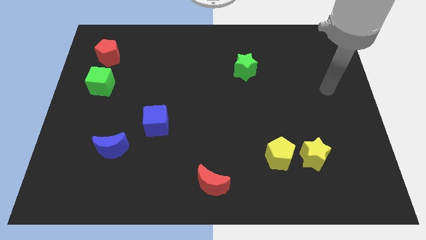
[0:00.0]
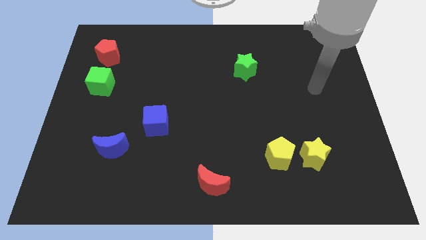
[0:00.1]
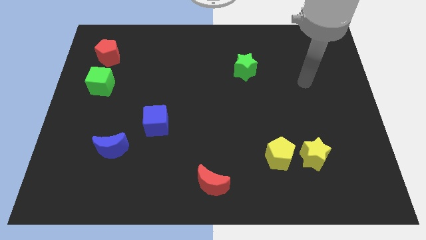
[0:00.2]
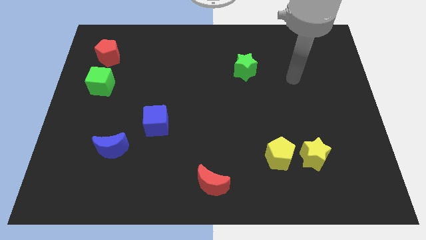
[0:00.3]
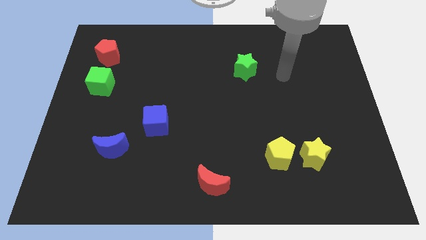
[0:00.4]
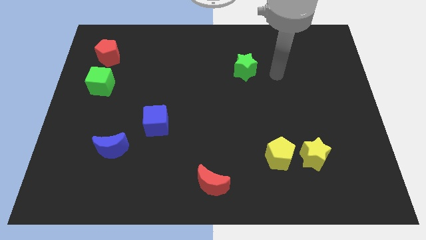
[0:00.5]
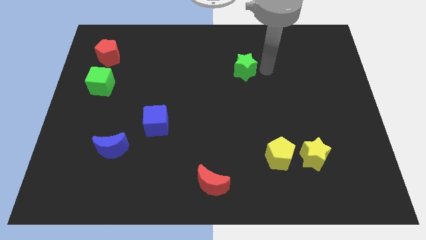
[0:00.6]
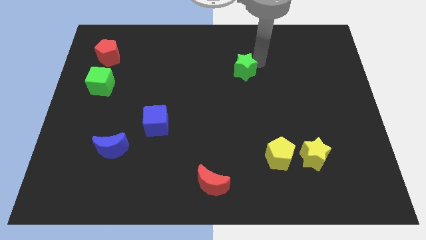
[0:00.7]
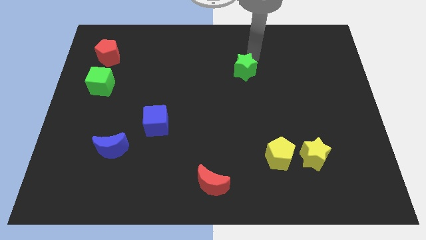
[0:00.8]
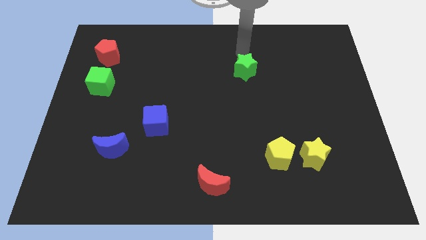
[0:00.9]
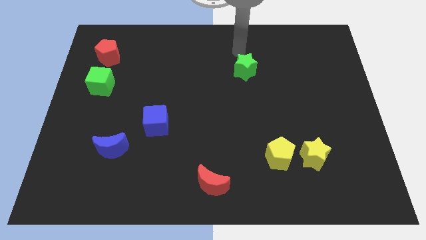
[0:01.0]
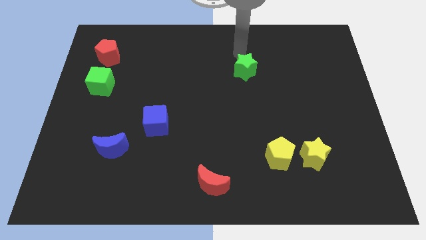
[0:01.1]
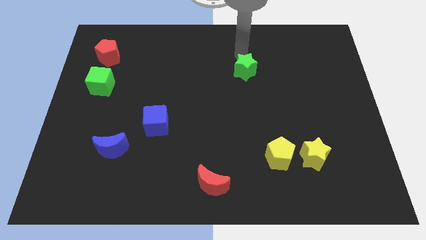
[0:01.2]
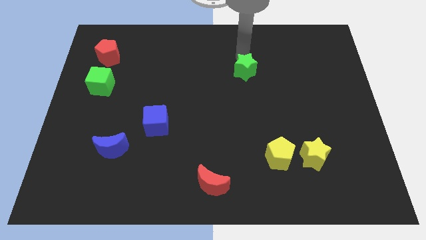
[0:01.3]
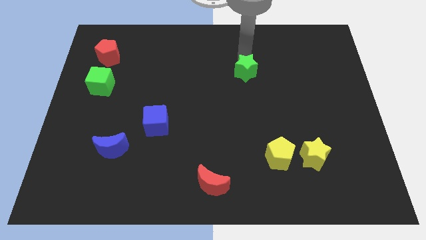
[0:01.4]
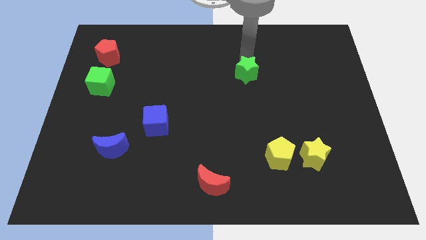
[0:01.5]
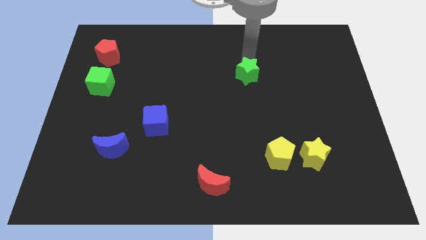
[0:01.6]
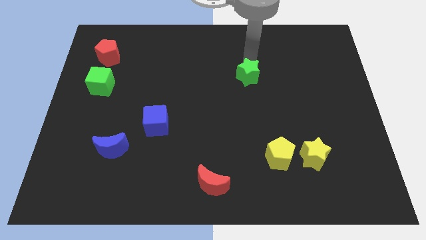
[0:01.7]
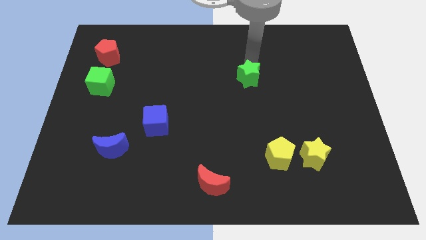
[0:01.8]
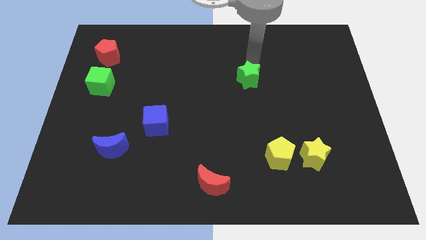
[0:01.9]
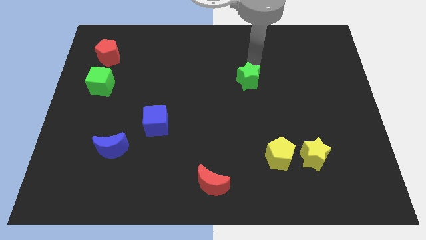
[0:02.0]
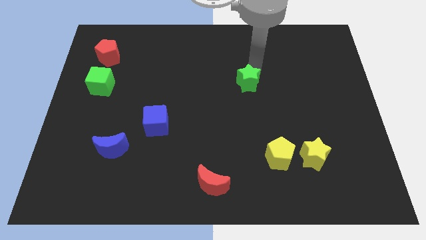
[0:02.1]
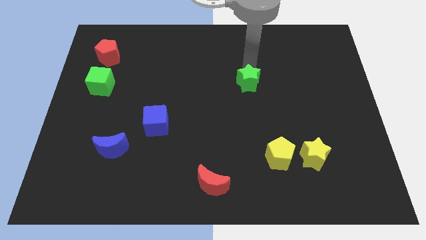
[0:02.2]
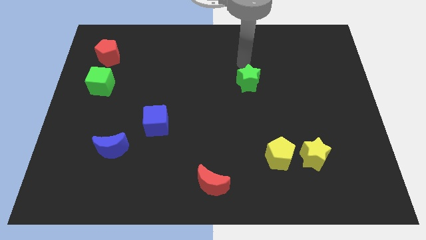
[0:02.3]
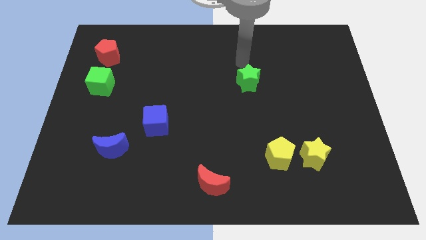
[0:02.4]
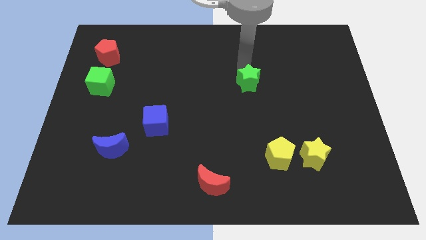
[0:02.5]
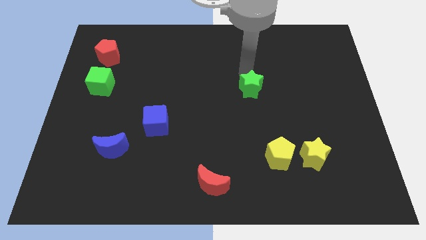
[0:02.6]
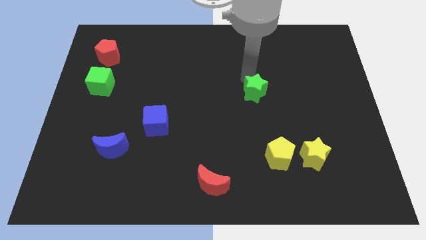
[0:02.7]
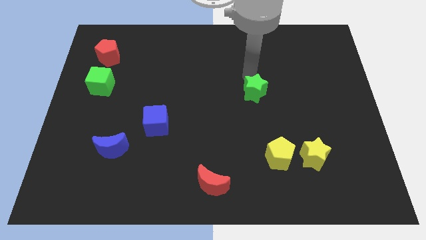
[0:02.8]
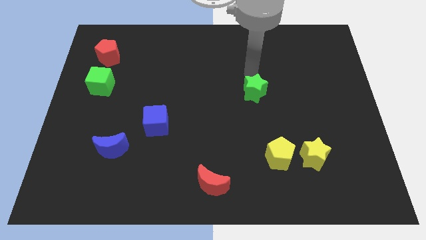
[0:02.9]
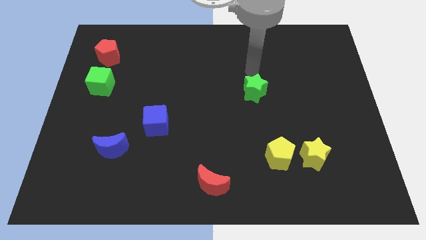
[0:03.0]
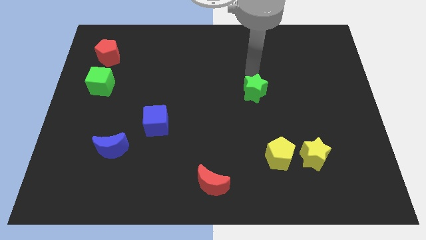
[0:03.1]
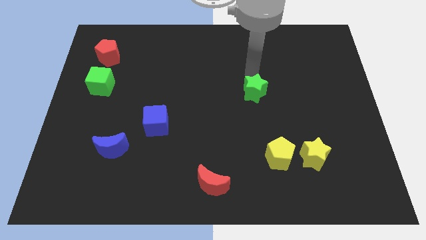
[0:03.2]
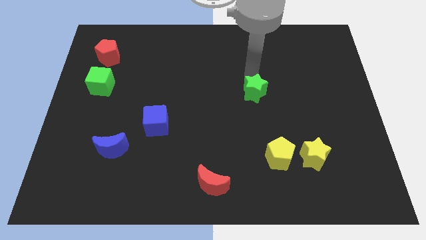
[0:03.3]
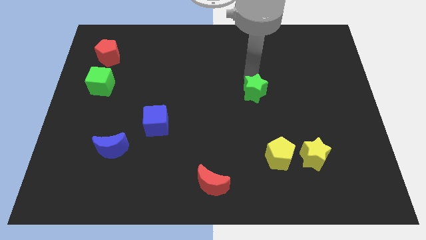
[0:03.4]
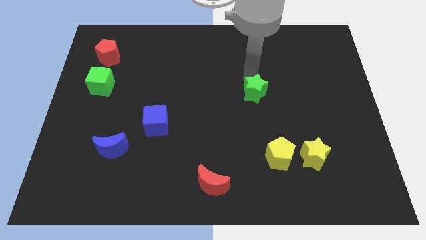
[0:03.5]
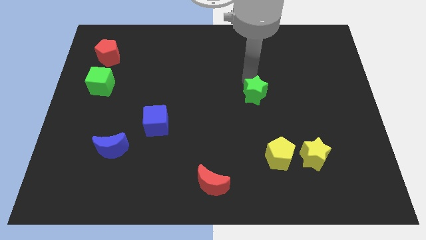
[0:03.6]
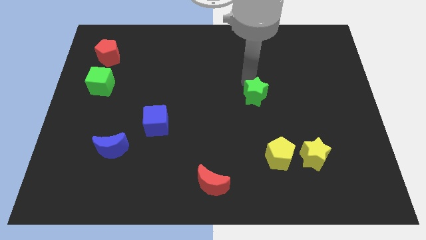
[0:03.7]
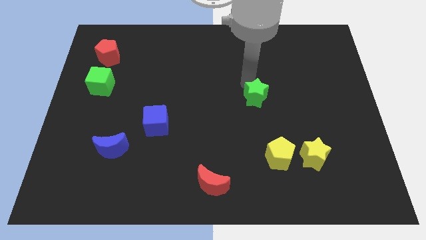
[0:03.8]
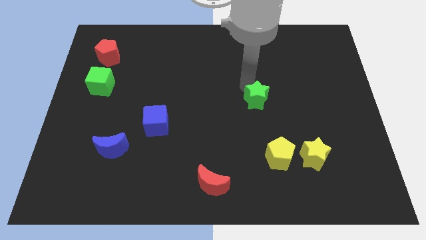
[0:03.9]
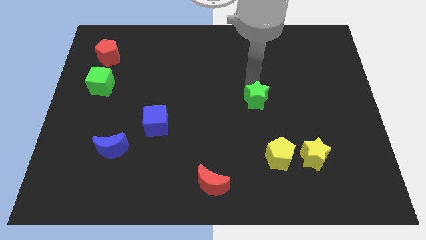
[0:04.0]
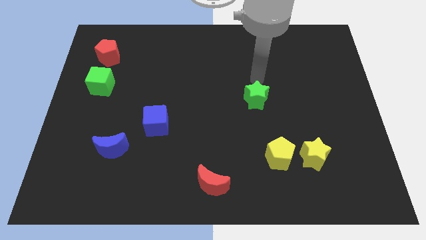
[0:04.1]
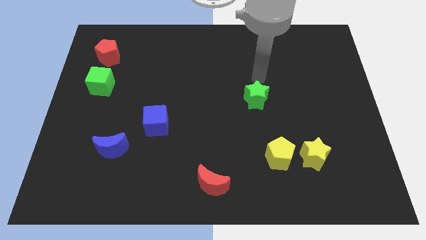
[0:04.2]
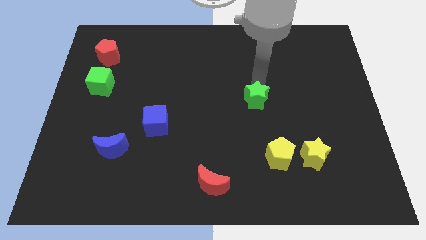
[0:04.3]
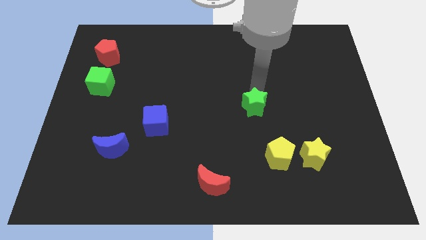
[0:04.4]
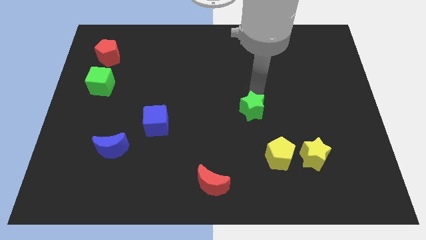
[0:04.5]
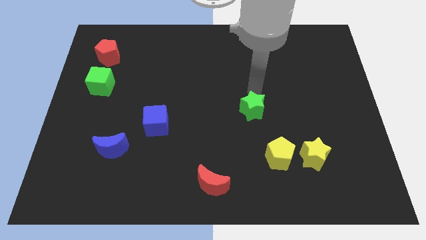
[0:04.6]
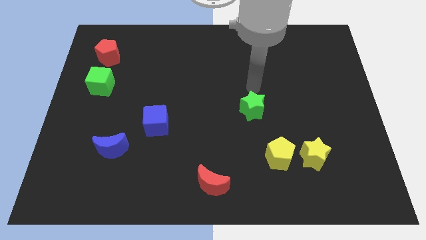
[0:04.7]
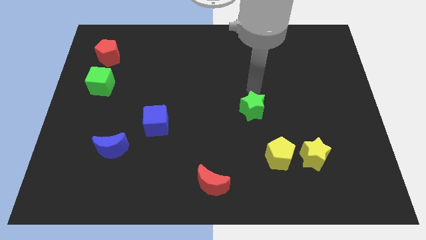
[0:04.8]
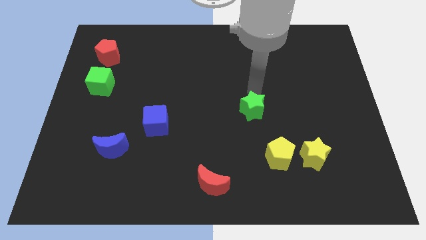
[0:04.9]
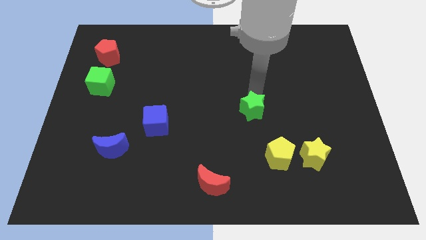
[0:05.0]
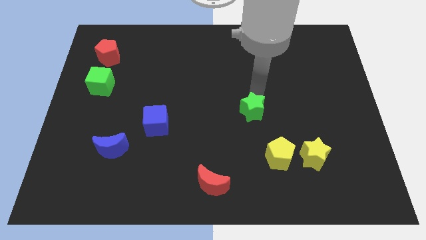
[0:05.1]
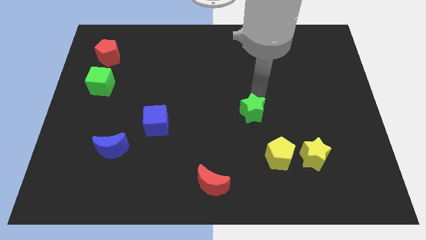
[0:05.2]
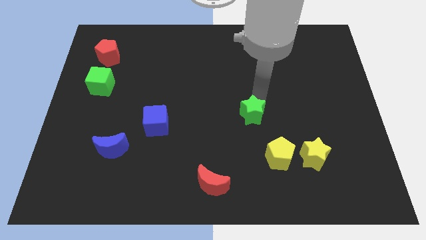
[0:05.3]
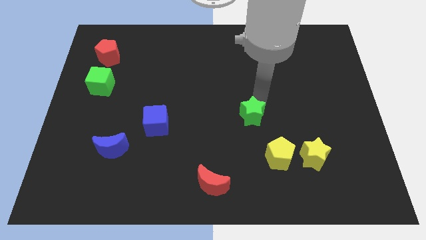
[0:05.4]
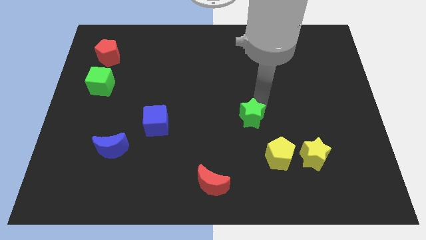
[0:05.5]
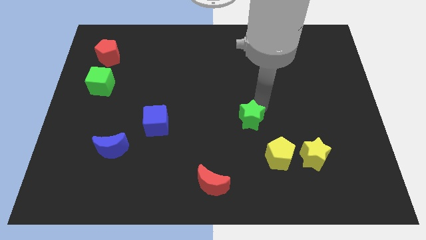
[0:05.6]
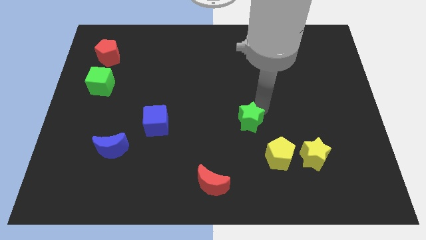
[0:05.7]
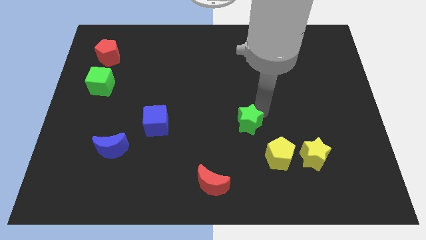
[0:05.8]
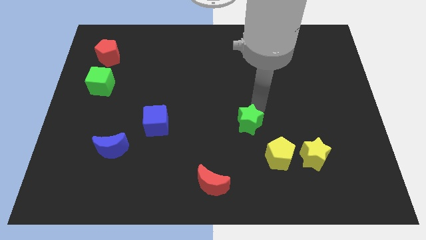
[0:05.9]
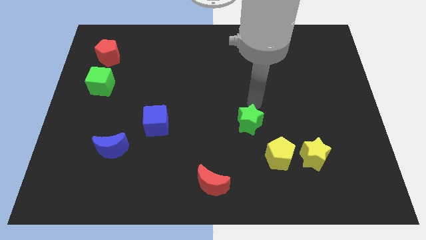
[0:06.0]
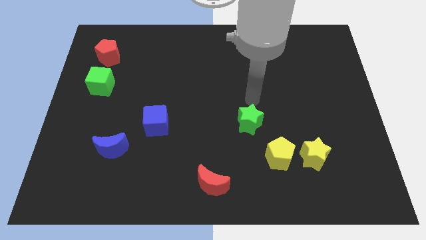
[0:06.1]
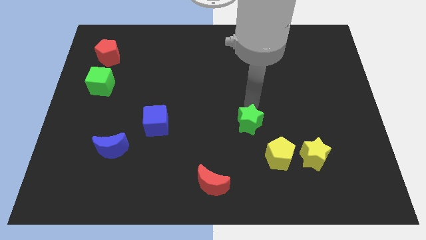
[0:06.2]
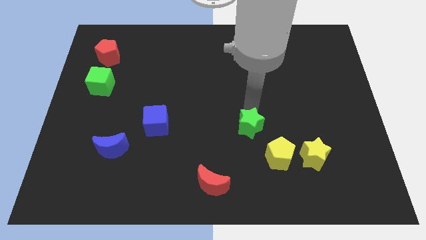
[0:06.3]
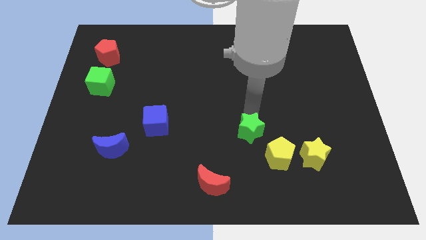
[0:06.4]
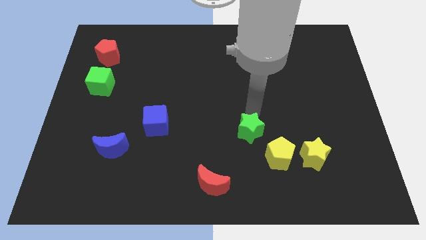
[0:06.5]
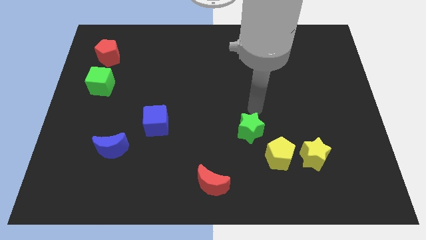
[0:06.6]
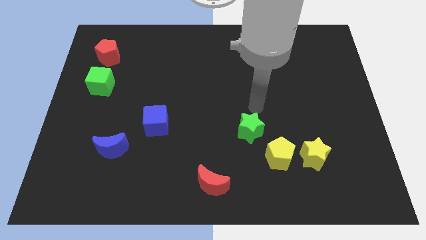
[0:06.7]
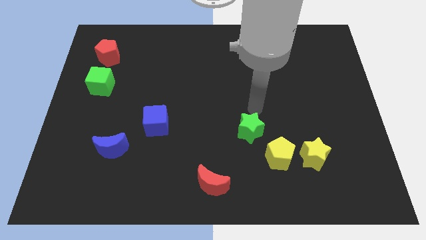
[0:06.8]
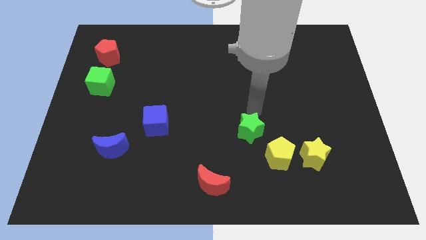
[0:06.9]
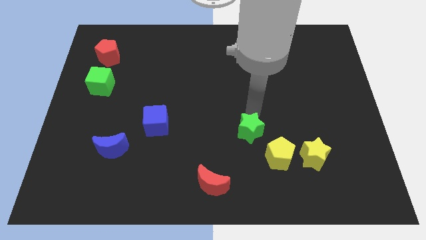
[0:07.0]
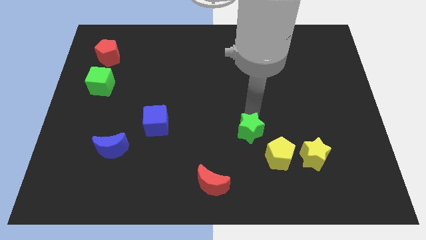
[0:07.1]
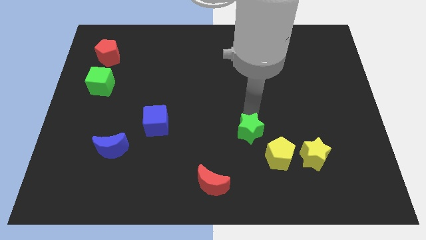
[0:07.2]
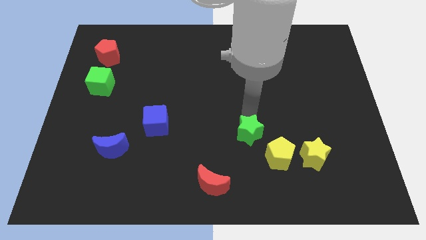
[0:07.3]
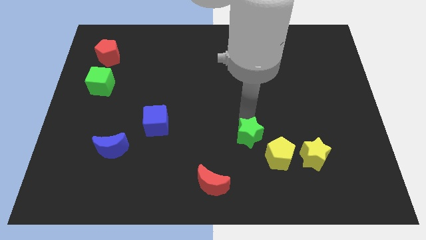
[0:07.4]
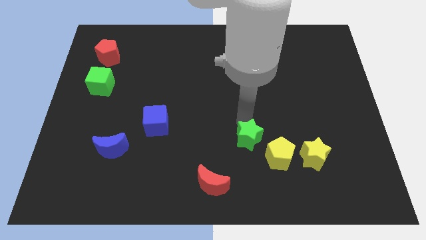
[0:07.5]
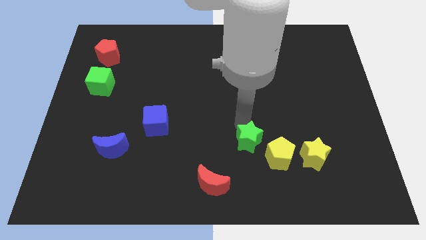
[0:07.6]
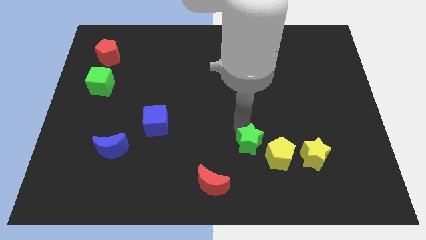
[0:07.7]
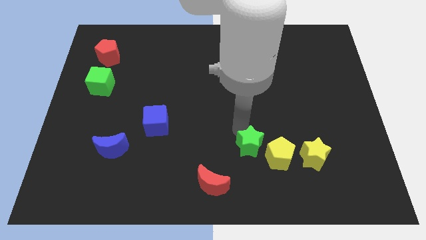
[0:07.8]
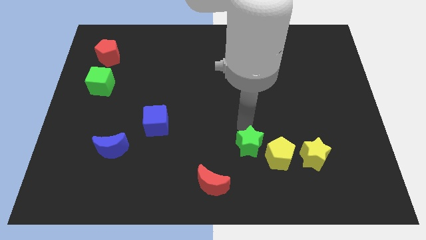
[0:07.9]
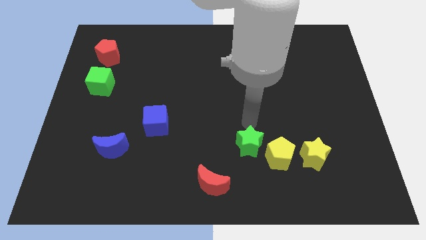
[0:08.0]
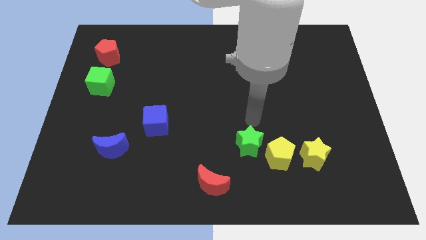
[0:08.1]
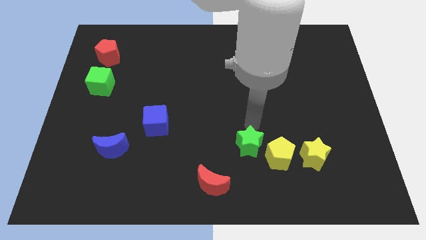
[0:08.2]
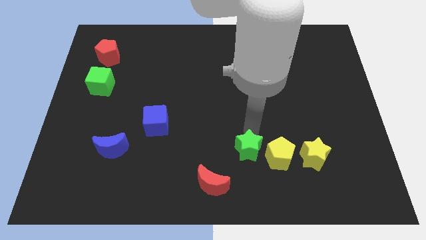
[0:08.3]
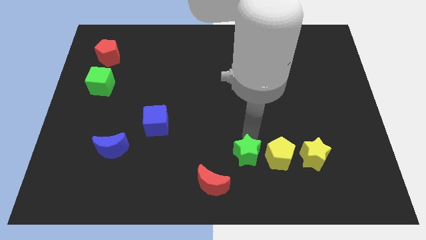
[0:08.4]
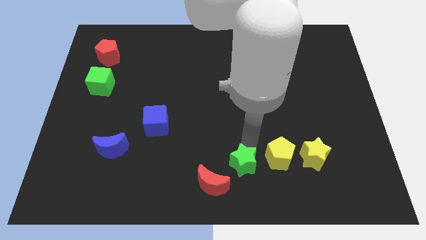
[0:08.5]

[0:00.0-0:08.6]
slide the green star to the bottom
